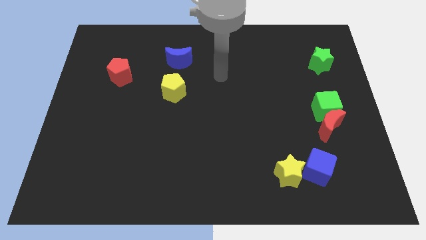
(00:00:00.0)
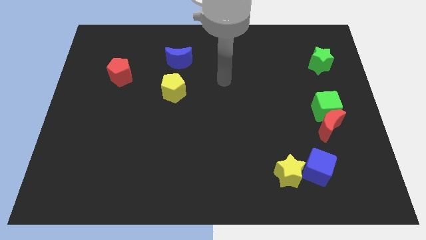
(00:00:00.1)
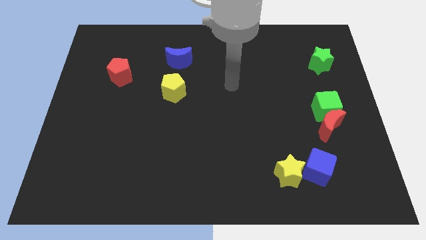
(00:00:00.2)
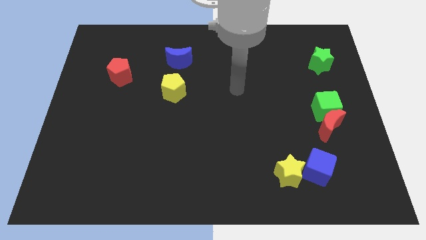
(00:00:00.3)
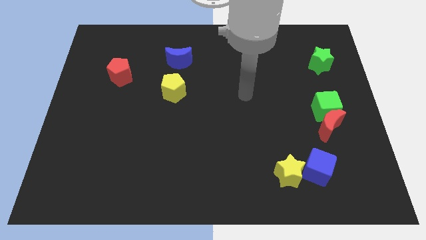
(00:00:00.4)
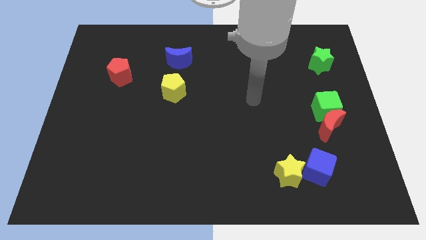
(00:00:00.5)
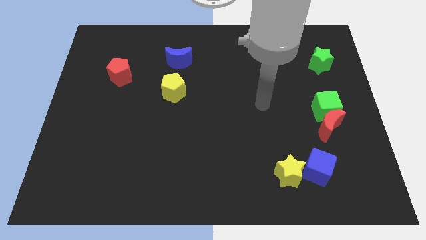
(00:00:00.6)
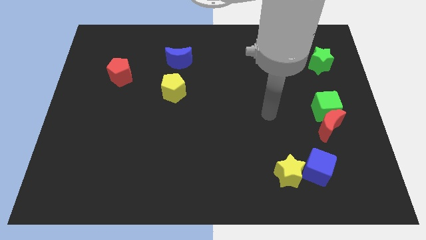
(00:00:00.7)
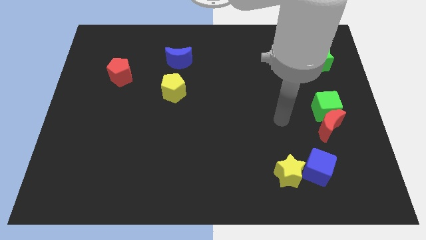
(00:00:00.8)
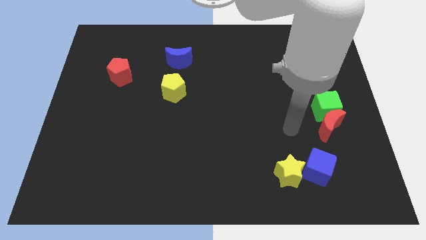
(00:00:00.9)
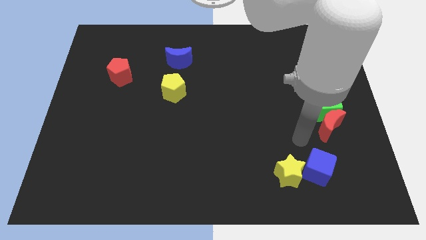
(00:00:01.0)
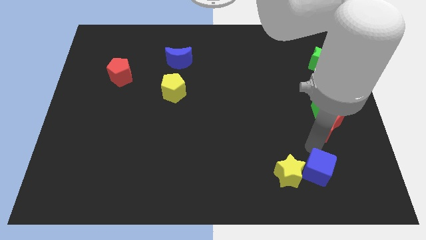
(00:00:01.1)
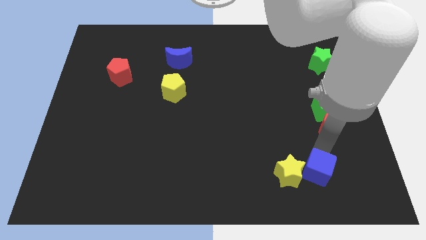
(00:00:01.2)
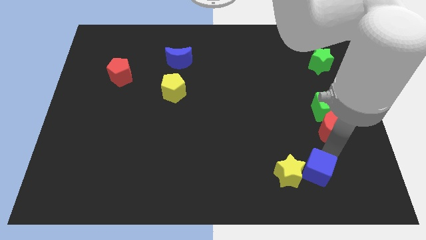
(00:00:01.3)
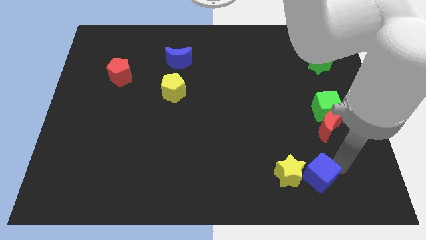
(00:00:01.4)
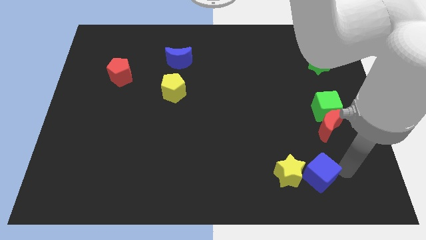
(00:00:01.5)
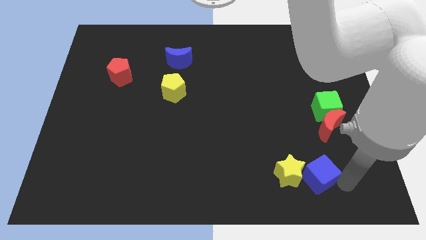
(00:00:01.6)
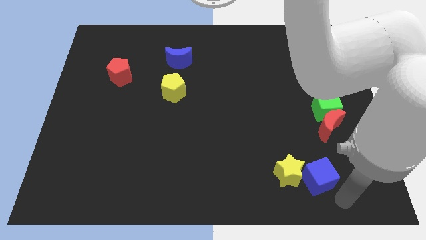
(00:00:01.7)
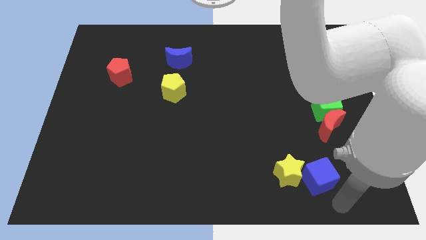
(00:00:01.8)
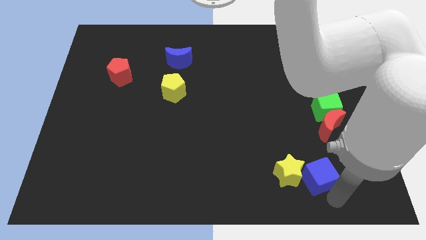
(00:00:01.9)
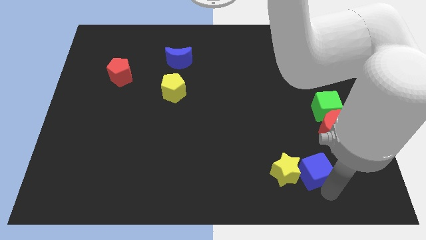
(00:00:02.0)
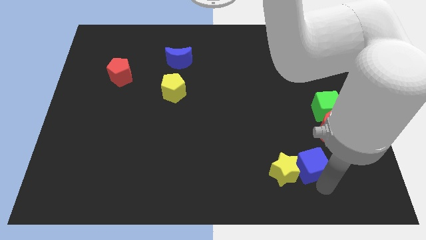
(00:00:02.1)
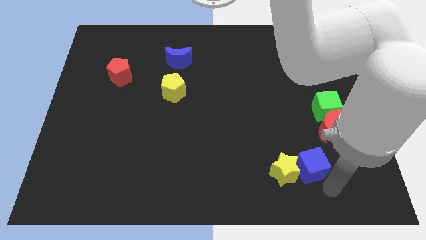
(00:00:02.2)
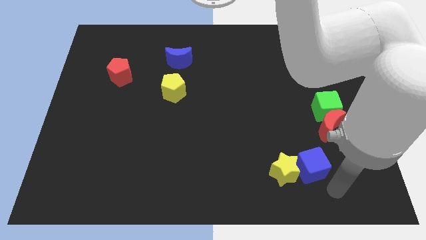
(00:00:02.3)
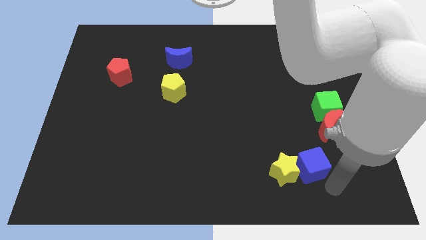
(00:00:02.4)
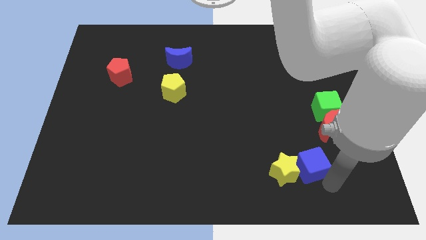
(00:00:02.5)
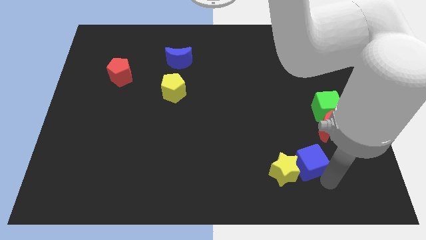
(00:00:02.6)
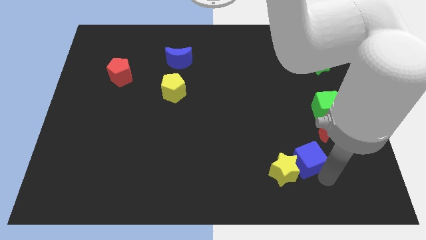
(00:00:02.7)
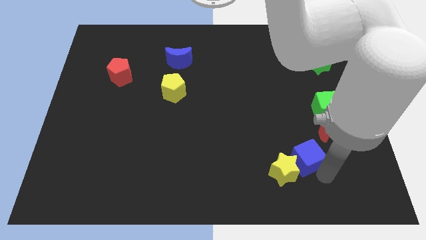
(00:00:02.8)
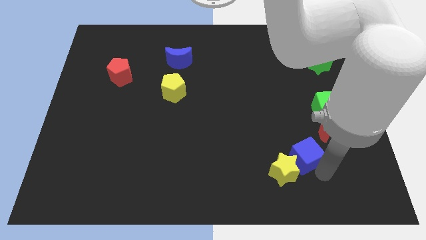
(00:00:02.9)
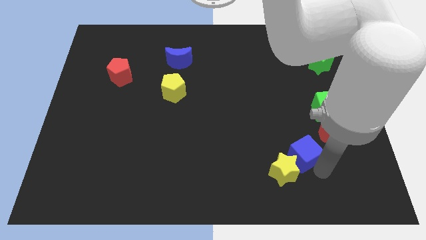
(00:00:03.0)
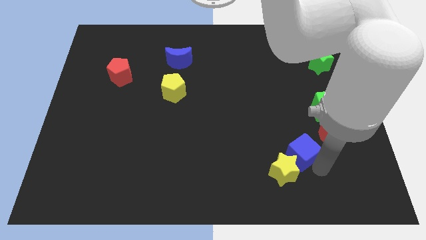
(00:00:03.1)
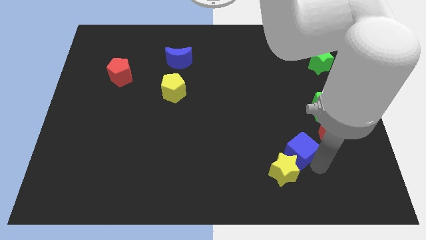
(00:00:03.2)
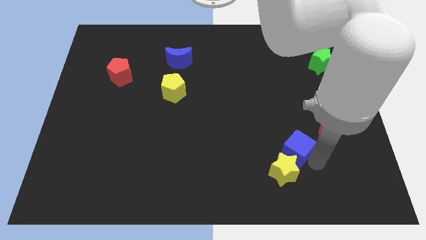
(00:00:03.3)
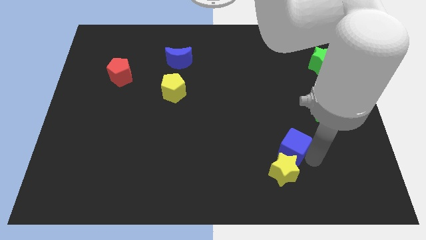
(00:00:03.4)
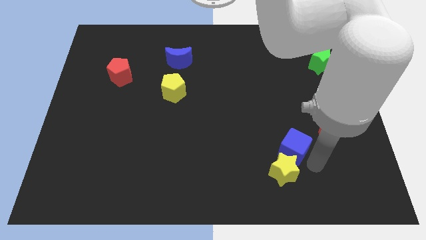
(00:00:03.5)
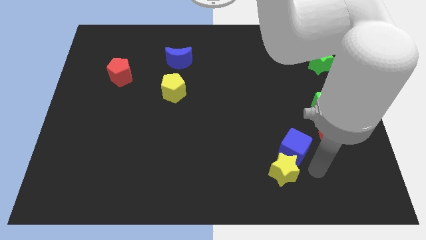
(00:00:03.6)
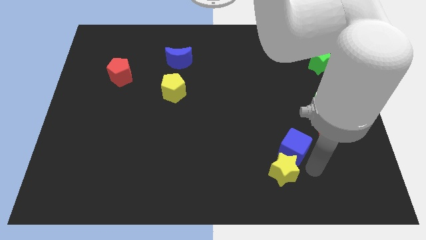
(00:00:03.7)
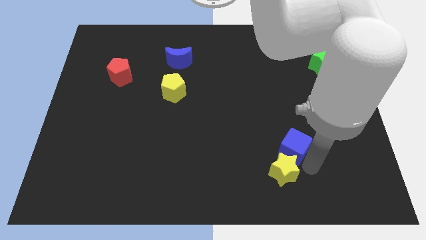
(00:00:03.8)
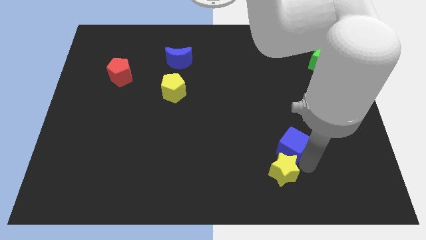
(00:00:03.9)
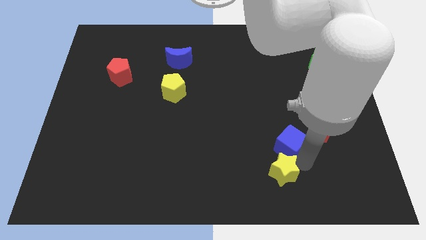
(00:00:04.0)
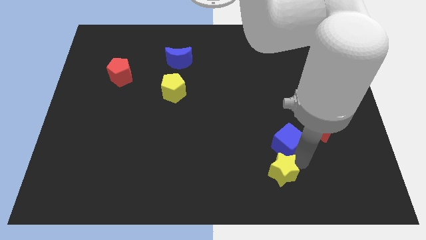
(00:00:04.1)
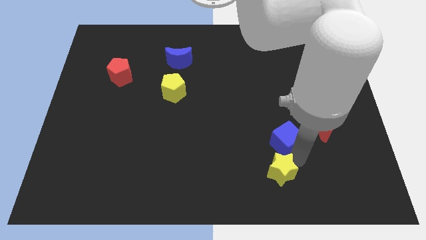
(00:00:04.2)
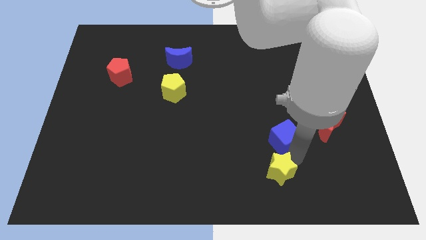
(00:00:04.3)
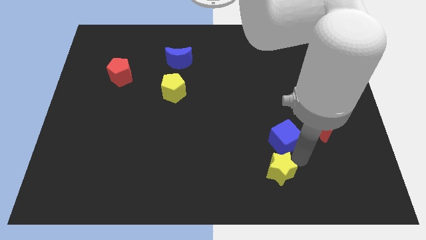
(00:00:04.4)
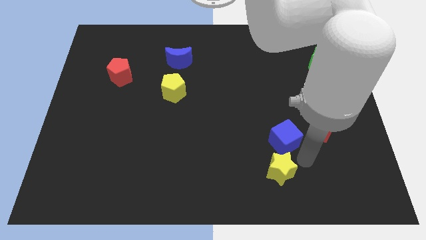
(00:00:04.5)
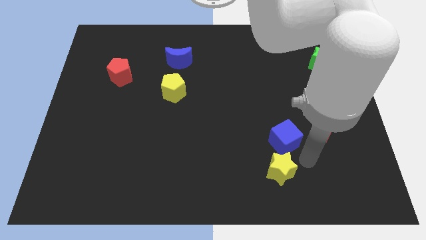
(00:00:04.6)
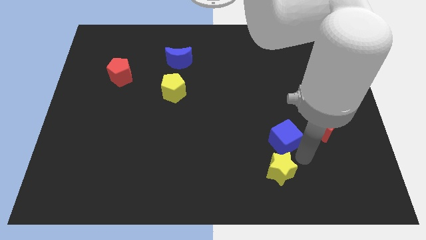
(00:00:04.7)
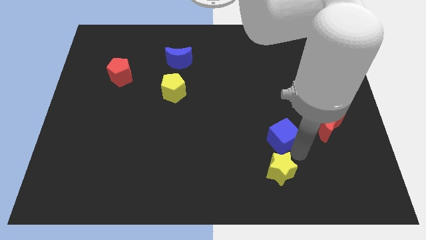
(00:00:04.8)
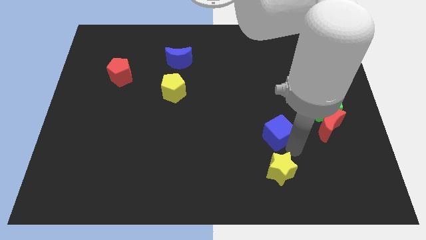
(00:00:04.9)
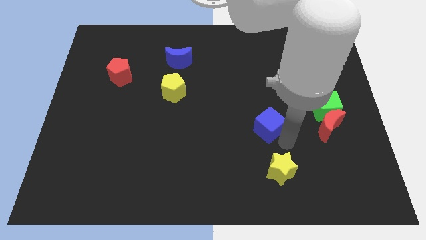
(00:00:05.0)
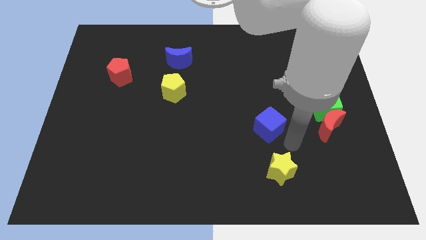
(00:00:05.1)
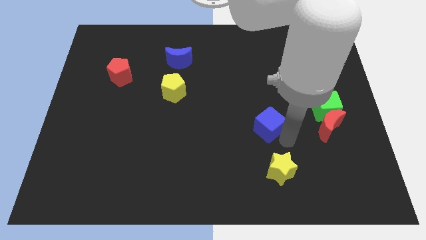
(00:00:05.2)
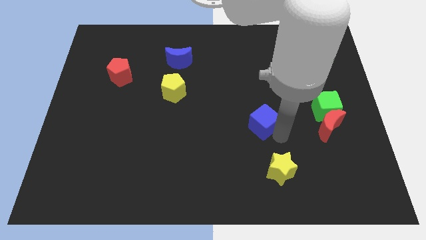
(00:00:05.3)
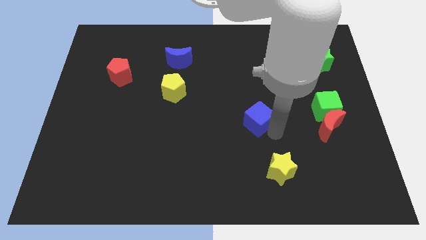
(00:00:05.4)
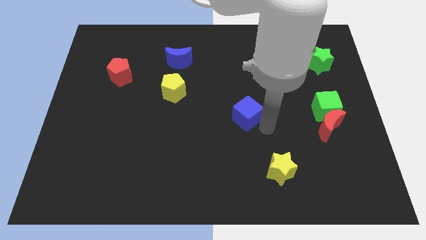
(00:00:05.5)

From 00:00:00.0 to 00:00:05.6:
slide the blue cube diagonally upwards and to the left

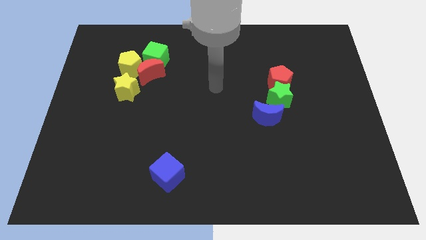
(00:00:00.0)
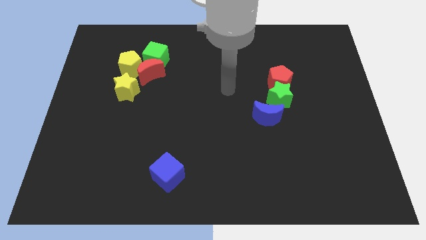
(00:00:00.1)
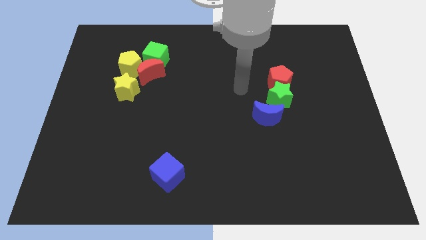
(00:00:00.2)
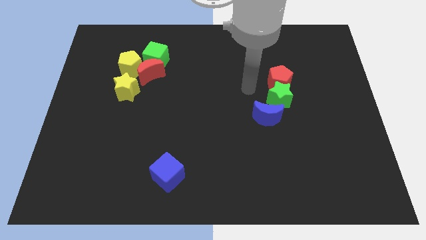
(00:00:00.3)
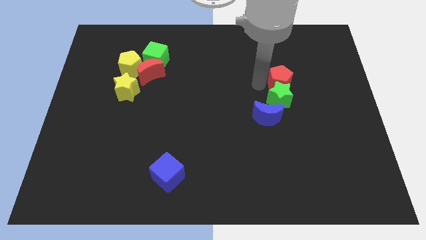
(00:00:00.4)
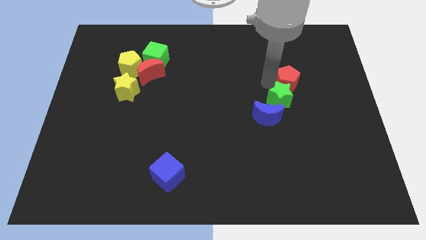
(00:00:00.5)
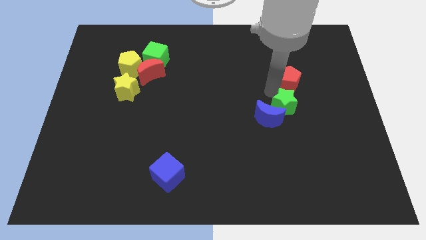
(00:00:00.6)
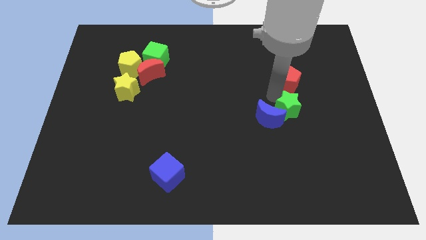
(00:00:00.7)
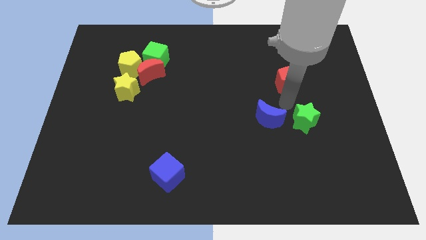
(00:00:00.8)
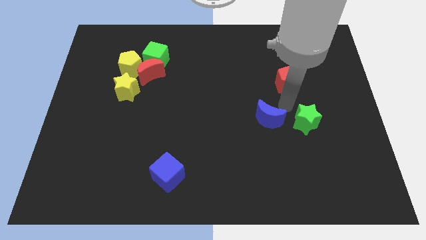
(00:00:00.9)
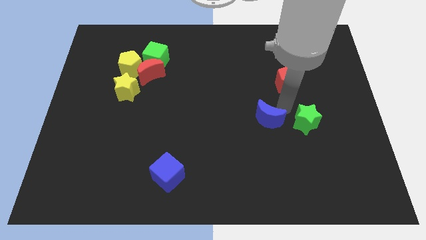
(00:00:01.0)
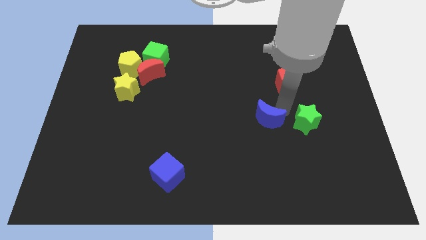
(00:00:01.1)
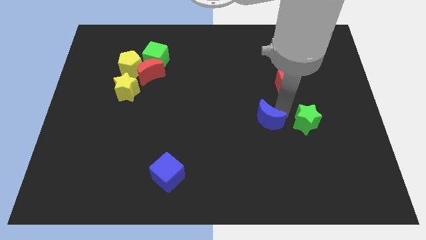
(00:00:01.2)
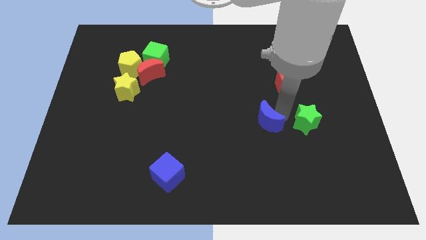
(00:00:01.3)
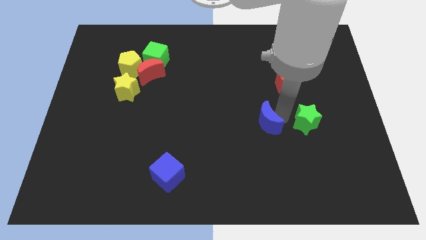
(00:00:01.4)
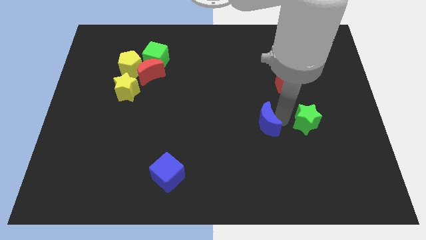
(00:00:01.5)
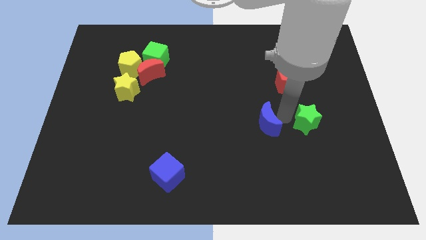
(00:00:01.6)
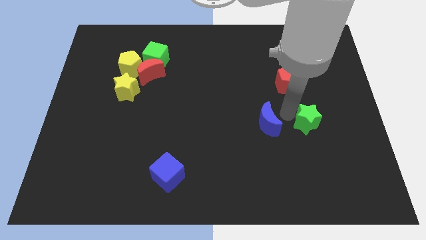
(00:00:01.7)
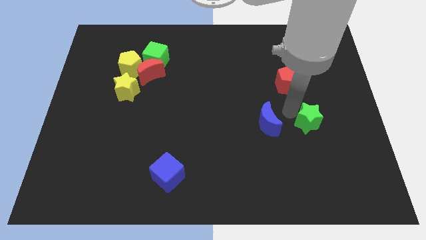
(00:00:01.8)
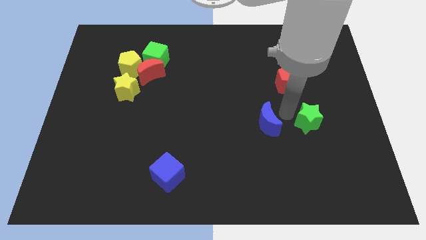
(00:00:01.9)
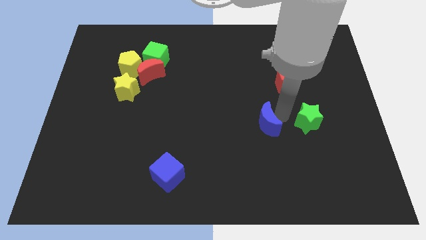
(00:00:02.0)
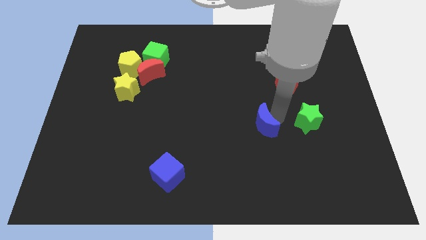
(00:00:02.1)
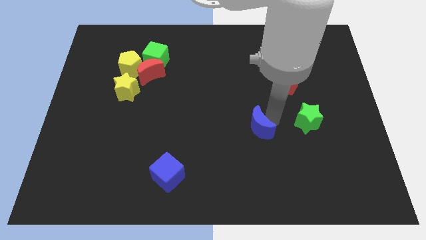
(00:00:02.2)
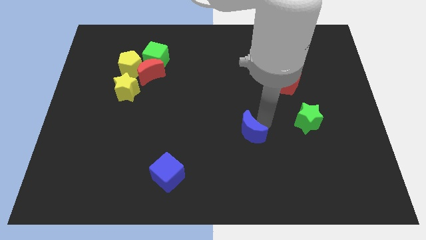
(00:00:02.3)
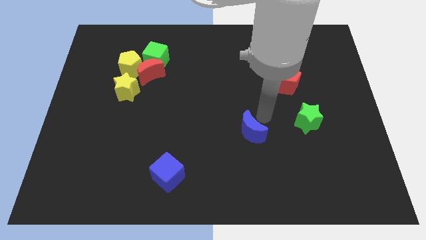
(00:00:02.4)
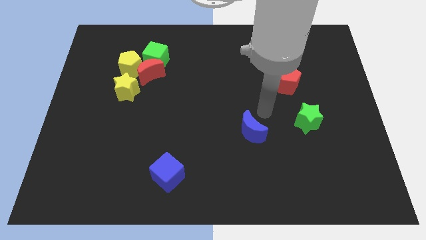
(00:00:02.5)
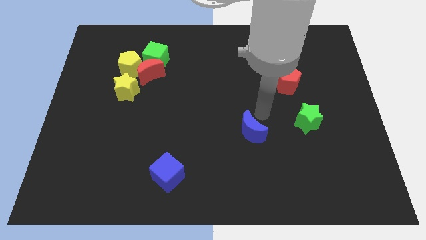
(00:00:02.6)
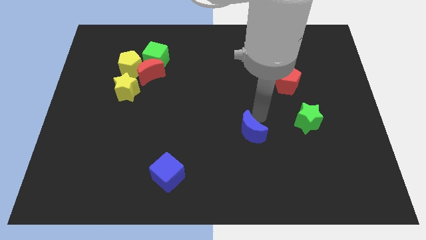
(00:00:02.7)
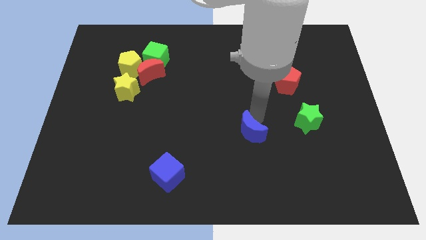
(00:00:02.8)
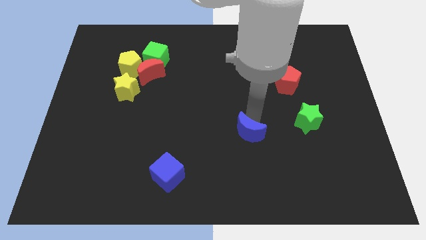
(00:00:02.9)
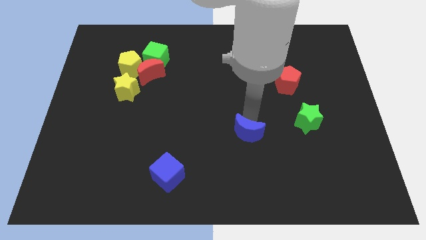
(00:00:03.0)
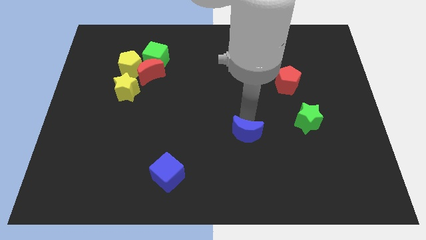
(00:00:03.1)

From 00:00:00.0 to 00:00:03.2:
slightly move the blue moon diagonally down and left
